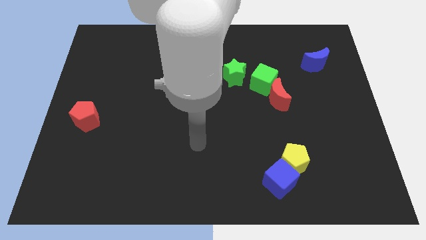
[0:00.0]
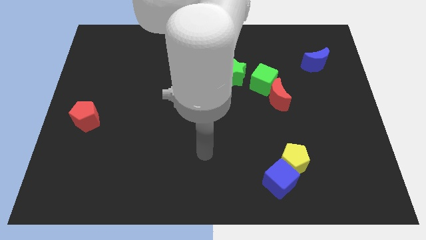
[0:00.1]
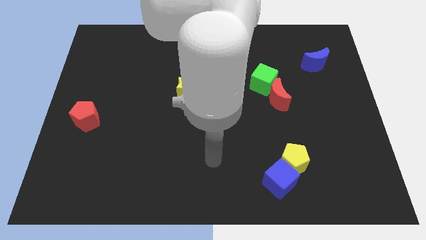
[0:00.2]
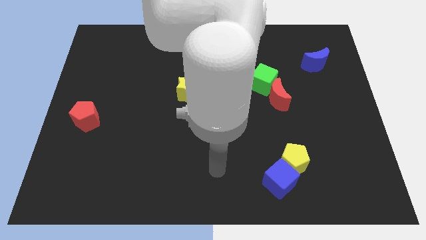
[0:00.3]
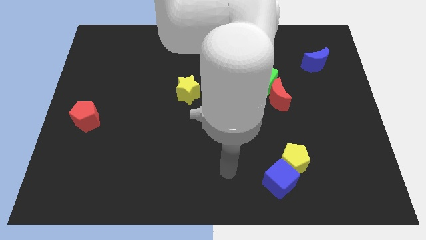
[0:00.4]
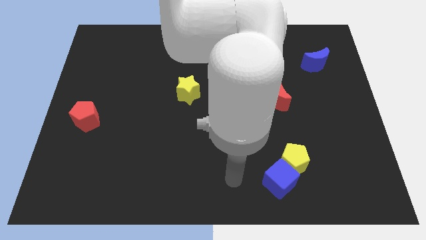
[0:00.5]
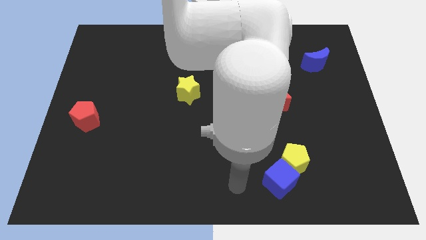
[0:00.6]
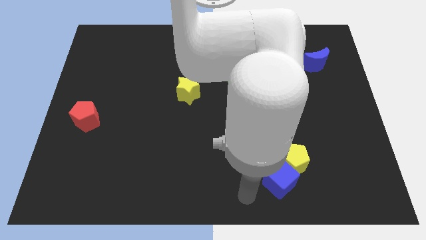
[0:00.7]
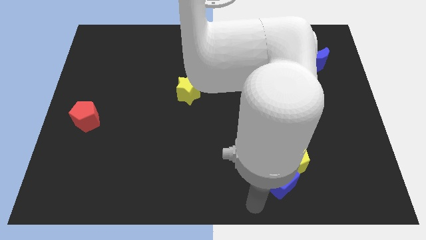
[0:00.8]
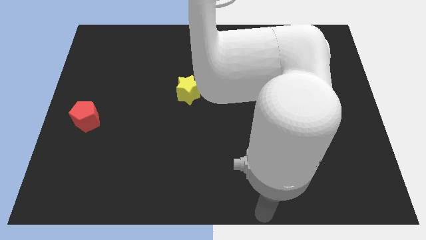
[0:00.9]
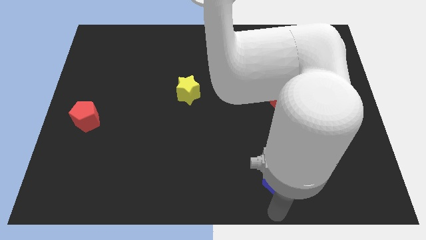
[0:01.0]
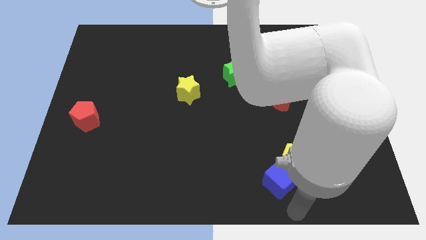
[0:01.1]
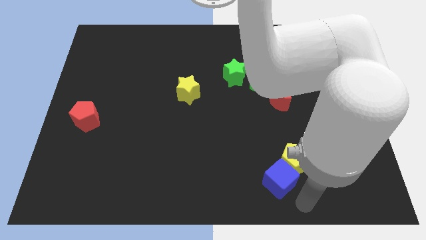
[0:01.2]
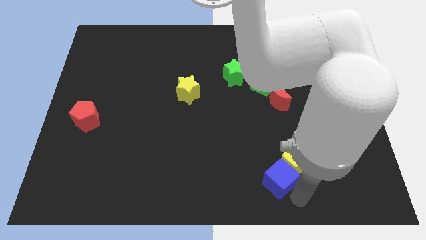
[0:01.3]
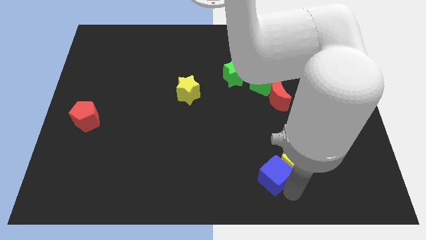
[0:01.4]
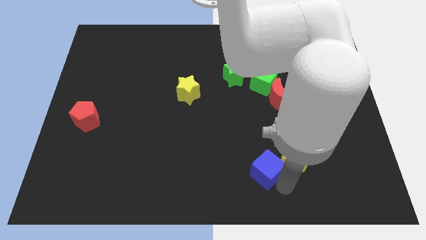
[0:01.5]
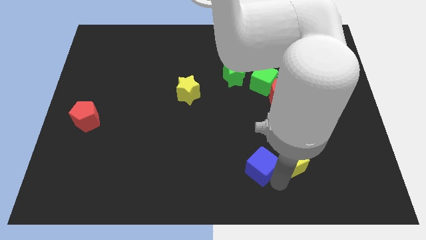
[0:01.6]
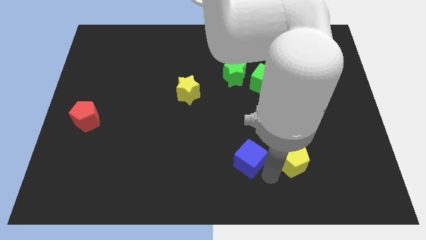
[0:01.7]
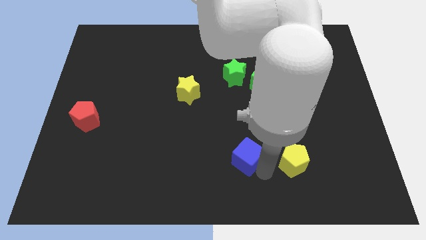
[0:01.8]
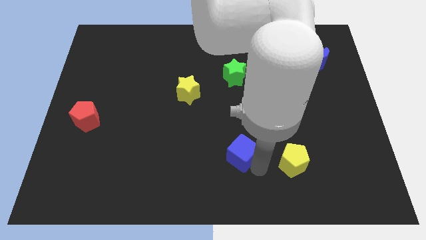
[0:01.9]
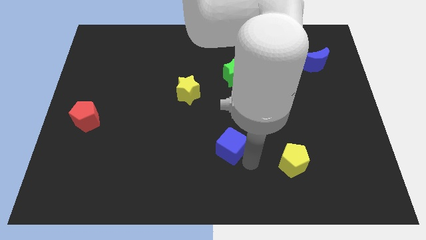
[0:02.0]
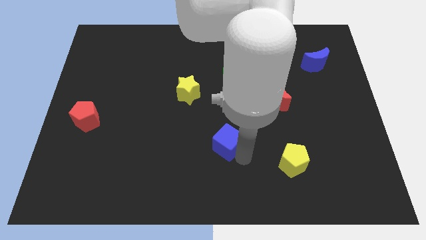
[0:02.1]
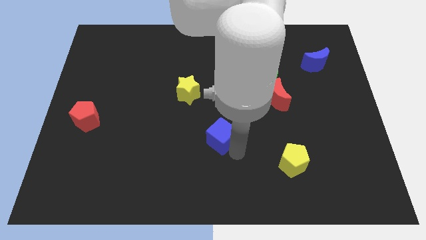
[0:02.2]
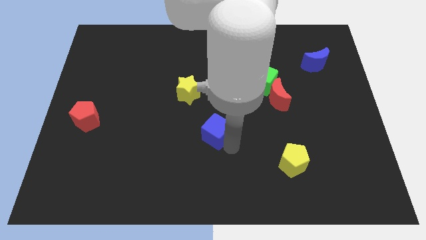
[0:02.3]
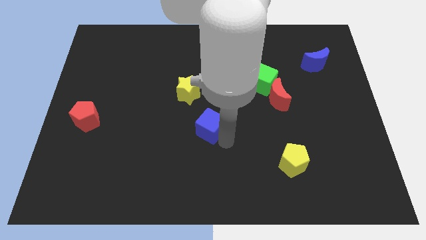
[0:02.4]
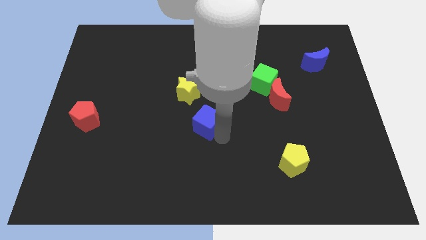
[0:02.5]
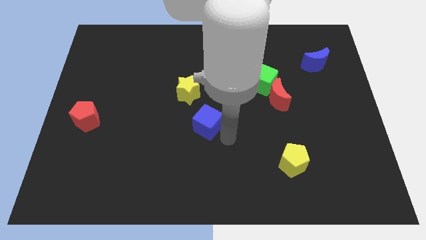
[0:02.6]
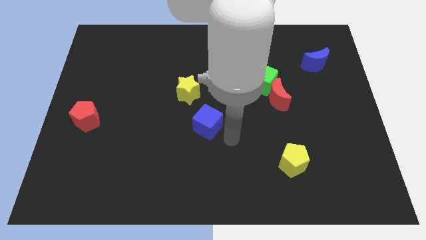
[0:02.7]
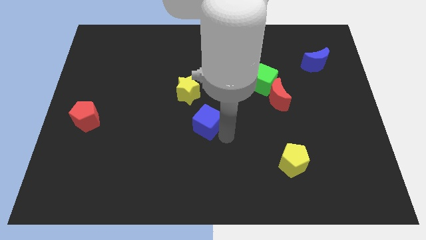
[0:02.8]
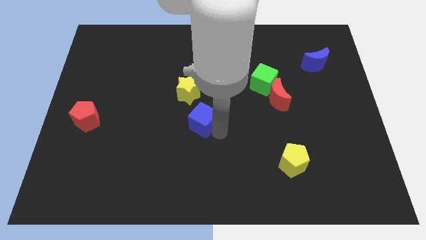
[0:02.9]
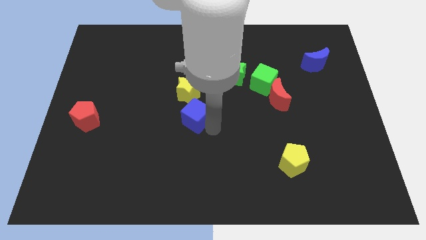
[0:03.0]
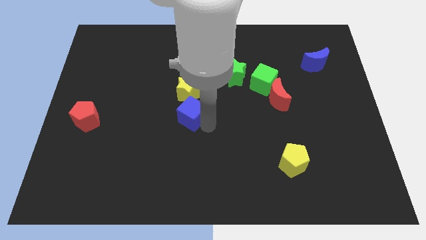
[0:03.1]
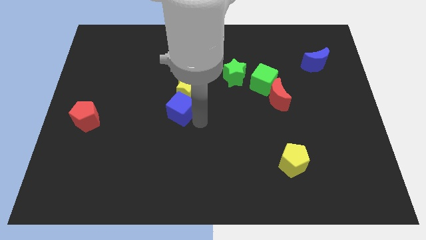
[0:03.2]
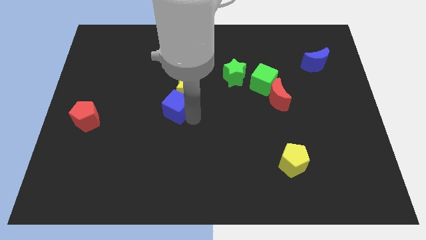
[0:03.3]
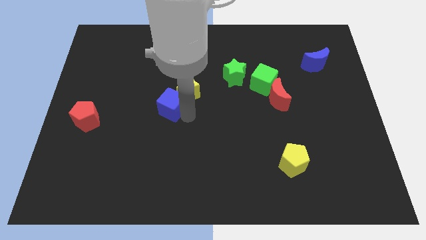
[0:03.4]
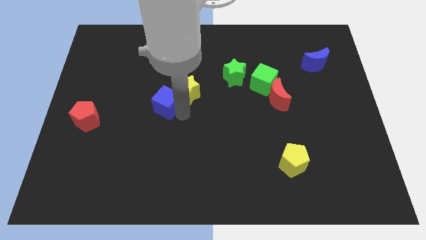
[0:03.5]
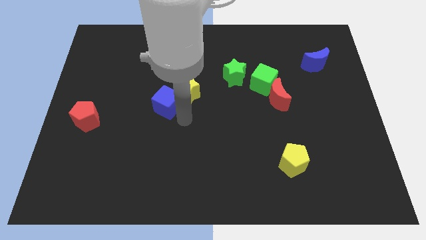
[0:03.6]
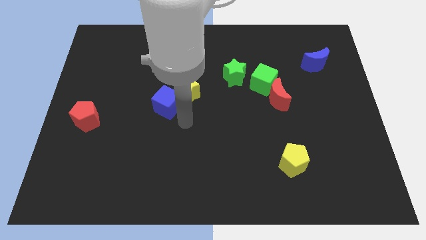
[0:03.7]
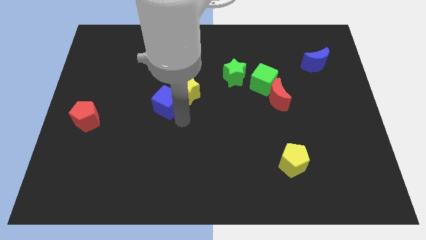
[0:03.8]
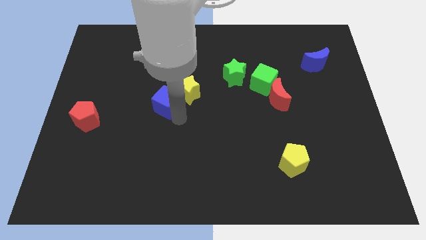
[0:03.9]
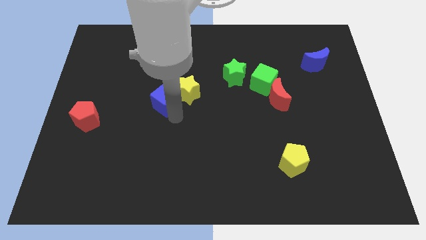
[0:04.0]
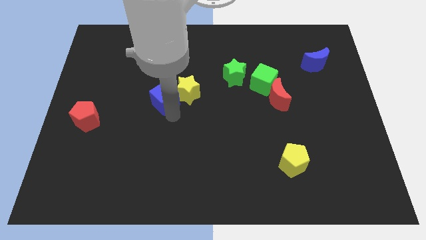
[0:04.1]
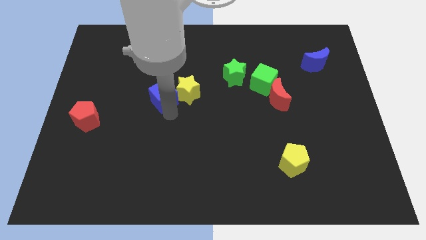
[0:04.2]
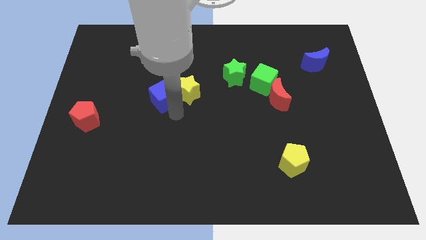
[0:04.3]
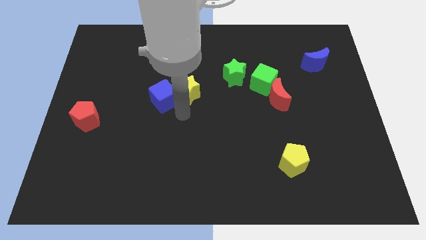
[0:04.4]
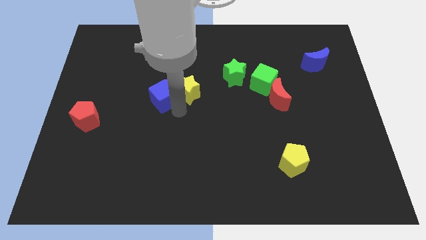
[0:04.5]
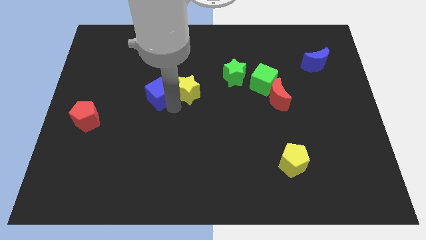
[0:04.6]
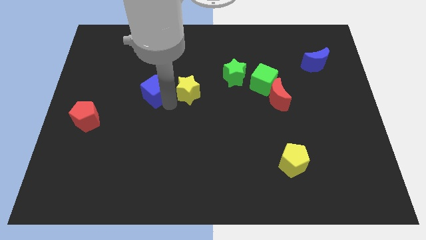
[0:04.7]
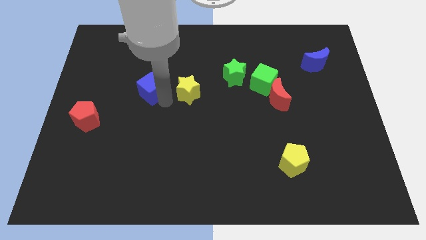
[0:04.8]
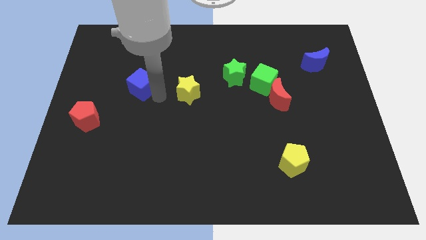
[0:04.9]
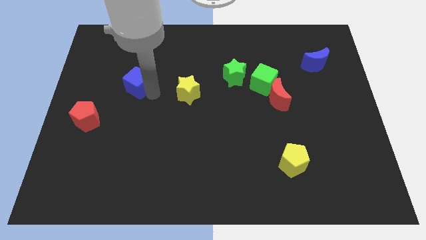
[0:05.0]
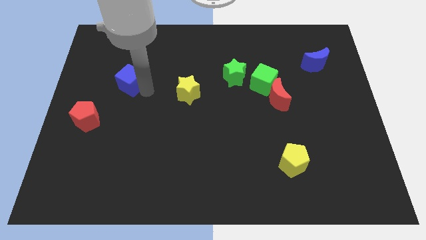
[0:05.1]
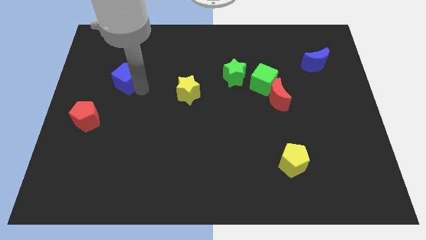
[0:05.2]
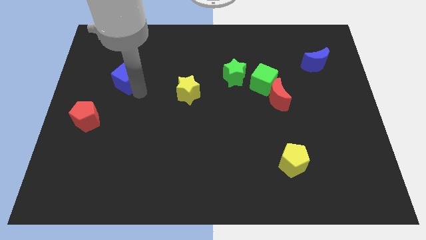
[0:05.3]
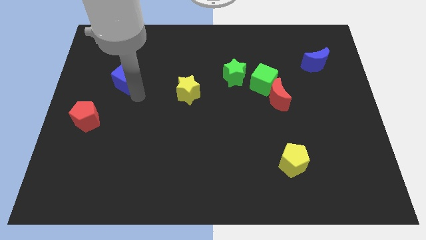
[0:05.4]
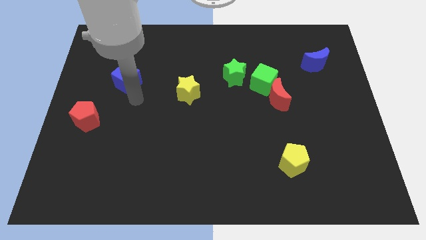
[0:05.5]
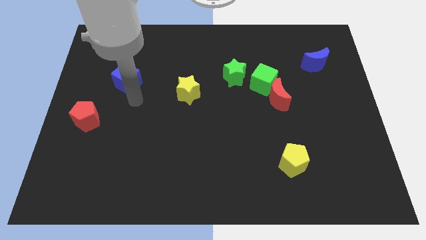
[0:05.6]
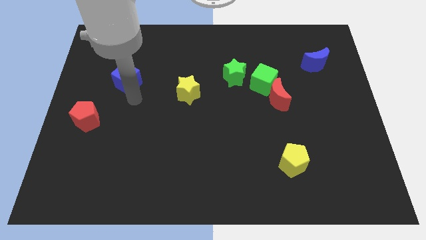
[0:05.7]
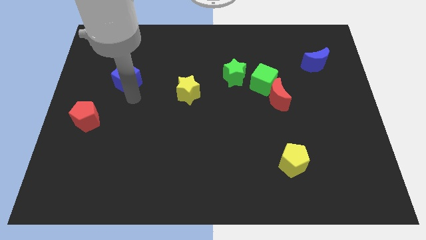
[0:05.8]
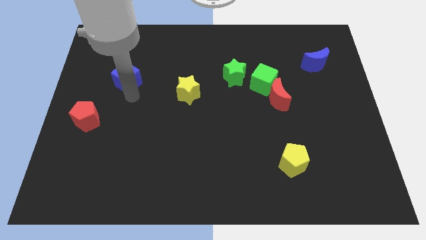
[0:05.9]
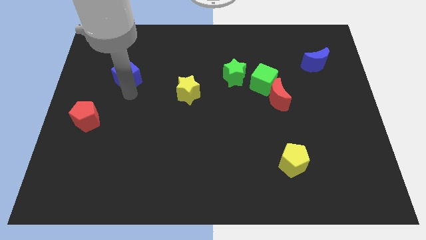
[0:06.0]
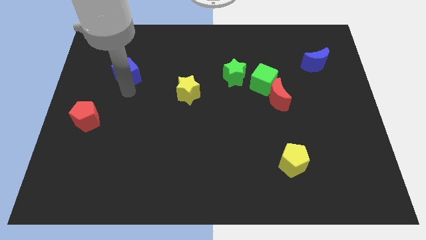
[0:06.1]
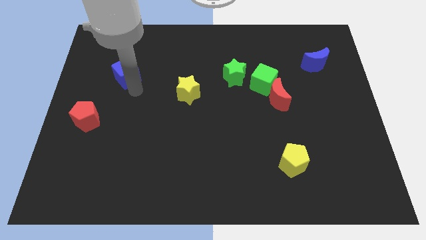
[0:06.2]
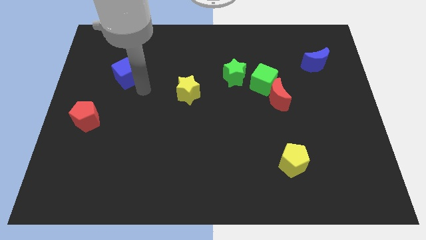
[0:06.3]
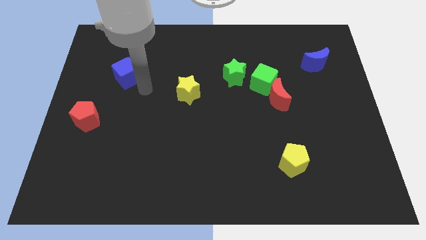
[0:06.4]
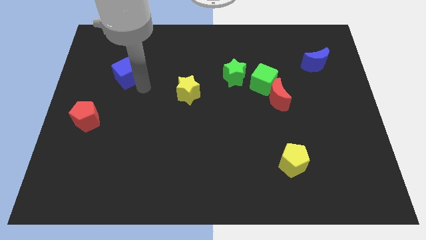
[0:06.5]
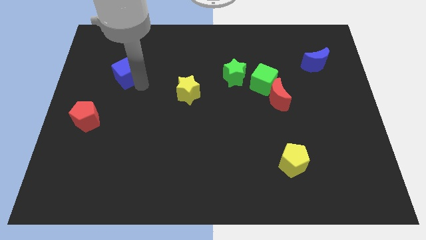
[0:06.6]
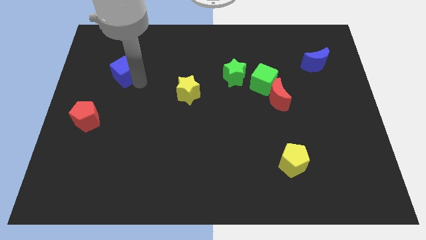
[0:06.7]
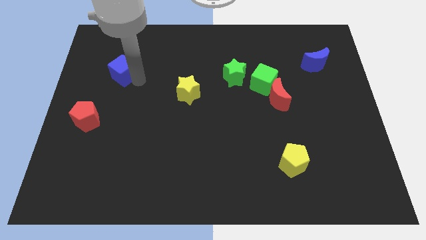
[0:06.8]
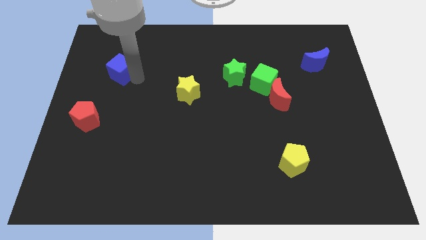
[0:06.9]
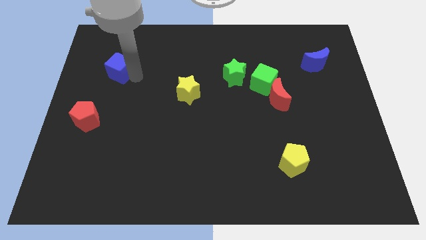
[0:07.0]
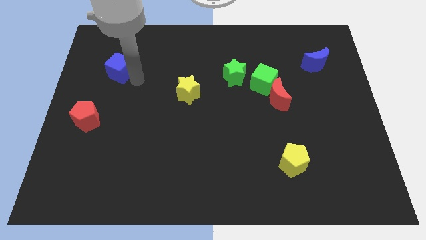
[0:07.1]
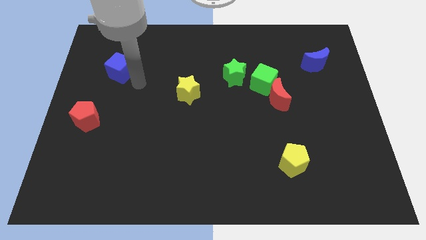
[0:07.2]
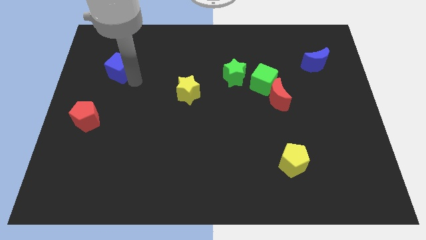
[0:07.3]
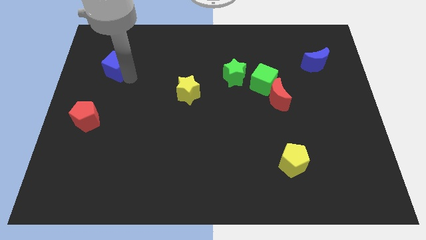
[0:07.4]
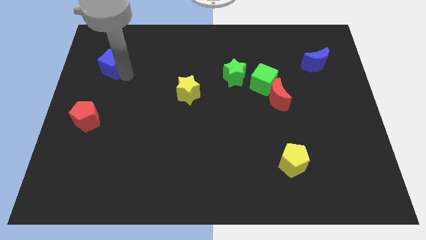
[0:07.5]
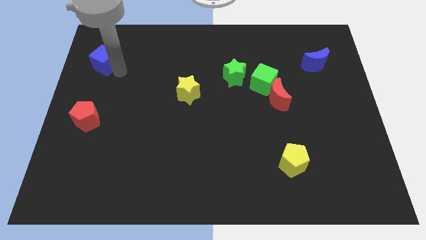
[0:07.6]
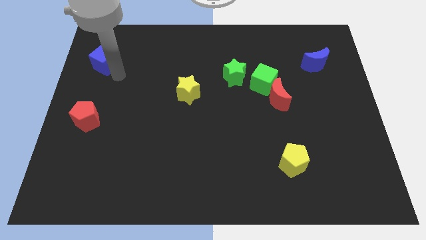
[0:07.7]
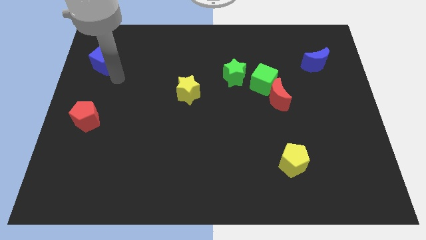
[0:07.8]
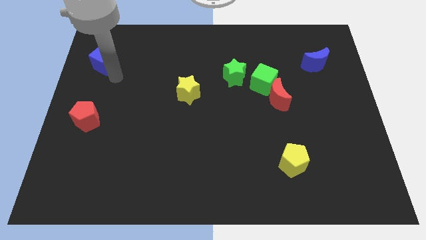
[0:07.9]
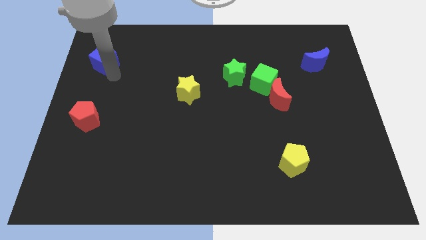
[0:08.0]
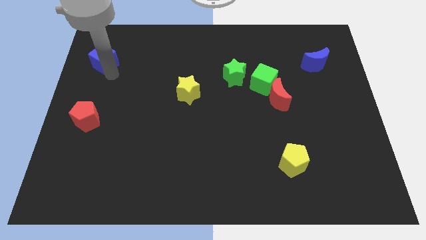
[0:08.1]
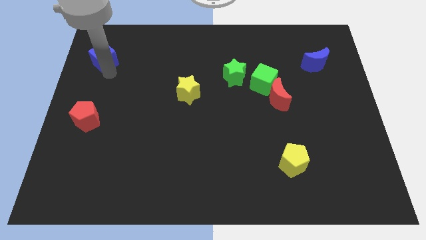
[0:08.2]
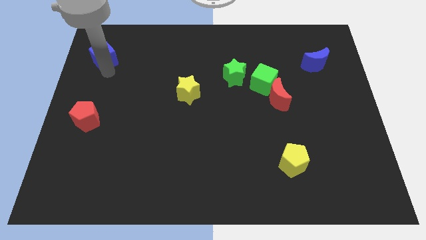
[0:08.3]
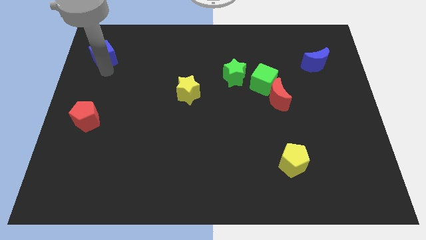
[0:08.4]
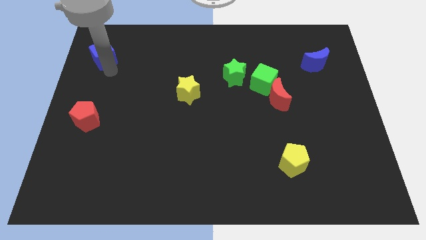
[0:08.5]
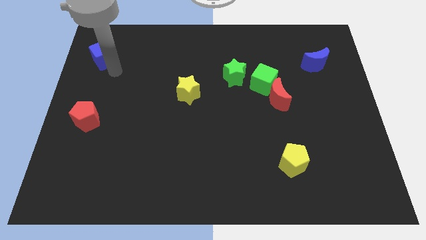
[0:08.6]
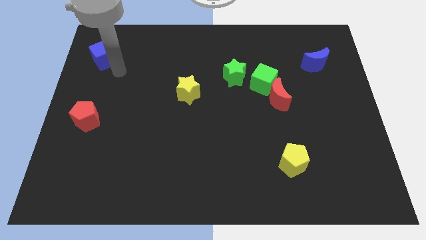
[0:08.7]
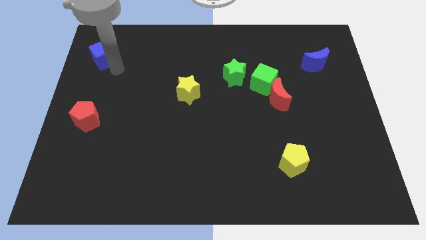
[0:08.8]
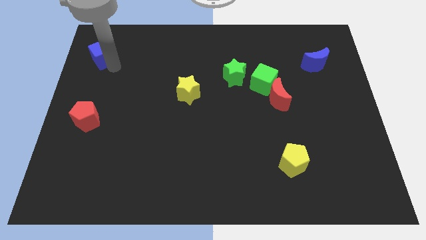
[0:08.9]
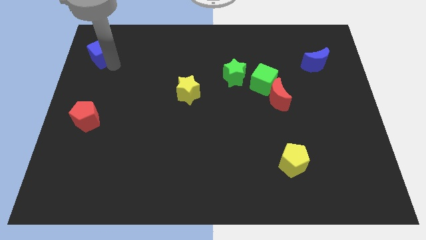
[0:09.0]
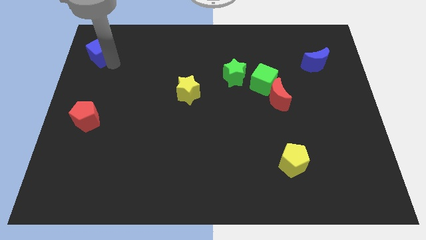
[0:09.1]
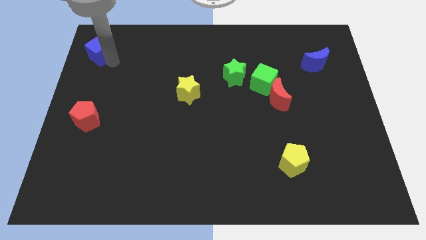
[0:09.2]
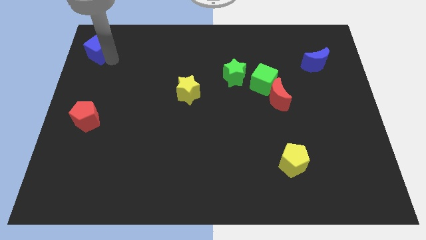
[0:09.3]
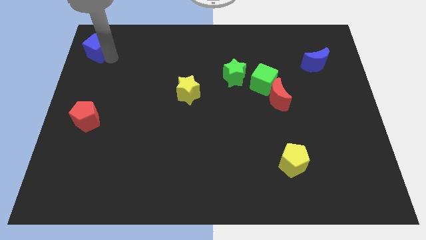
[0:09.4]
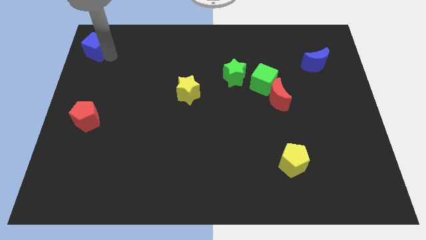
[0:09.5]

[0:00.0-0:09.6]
push the blue cube to the top left
